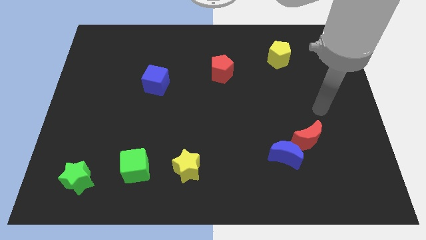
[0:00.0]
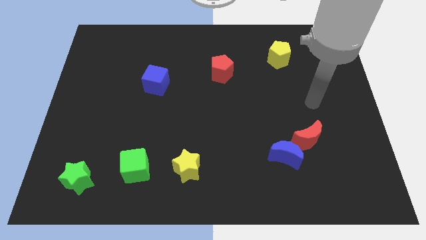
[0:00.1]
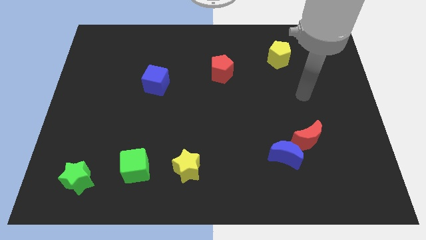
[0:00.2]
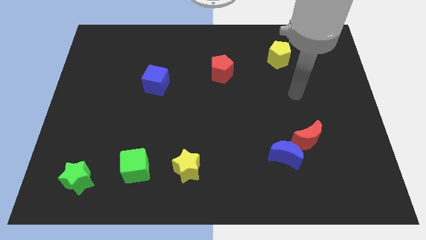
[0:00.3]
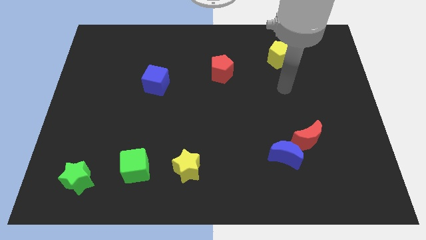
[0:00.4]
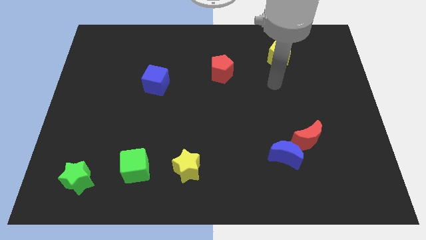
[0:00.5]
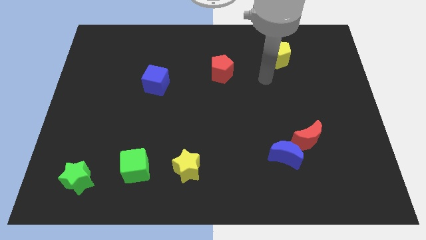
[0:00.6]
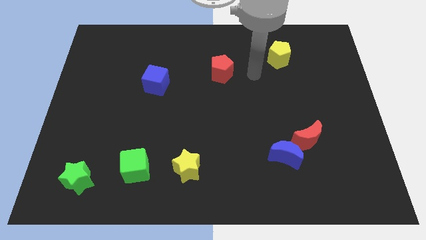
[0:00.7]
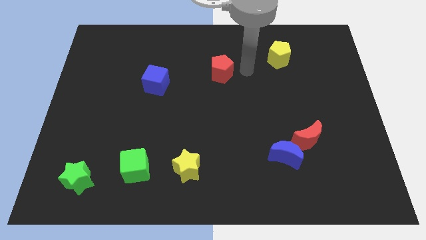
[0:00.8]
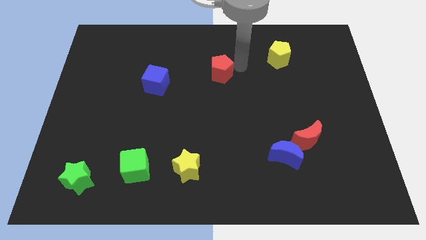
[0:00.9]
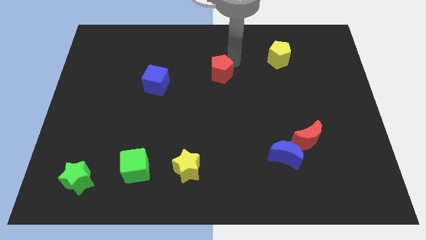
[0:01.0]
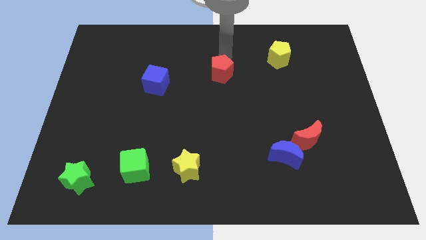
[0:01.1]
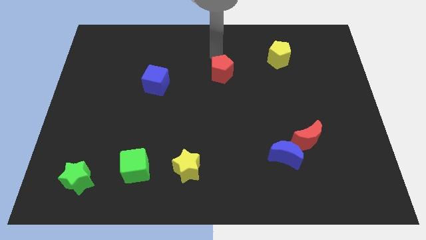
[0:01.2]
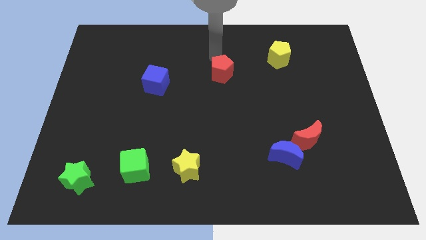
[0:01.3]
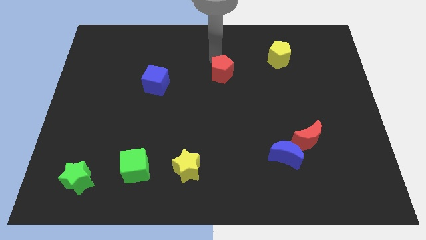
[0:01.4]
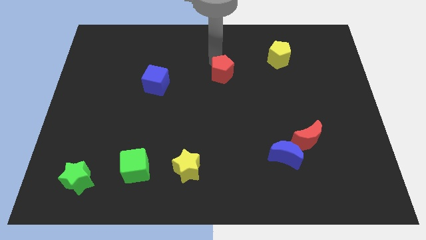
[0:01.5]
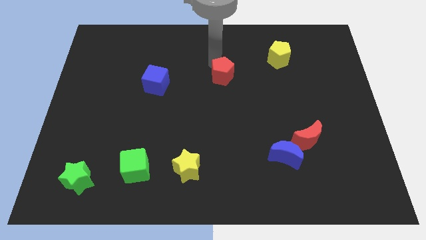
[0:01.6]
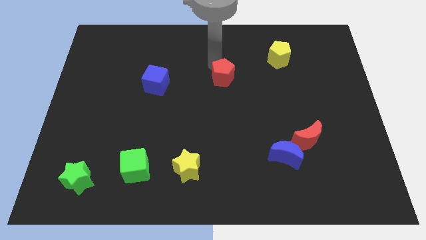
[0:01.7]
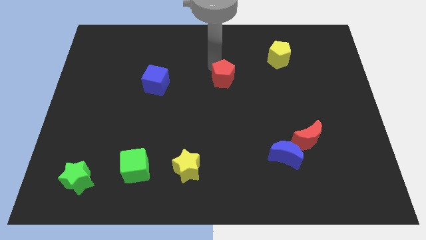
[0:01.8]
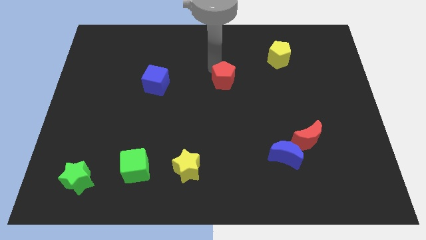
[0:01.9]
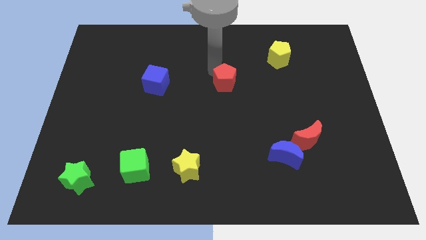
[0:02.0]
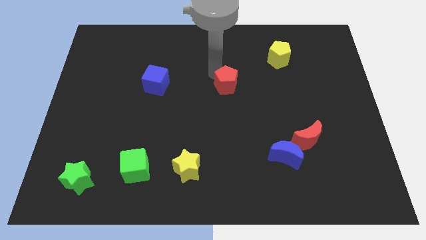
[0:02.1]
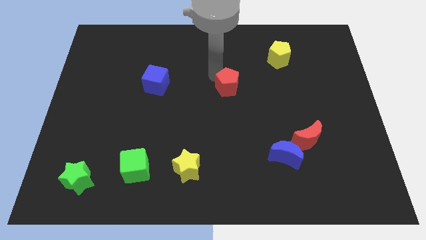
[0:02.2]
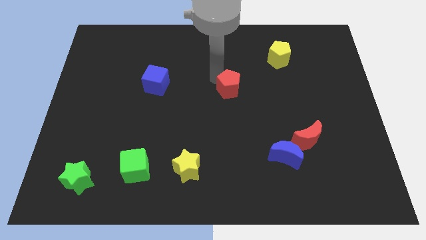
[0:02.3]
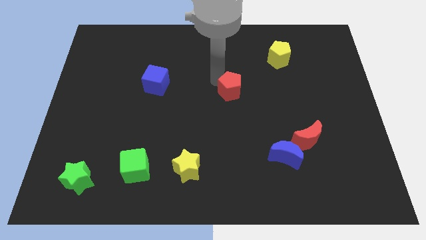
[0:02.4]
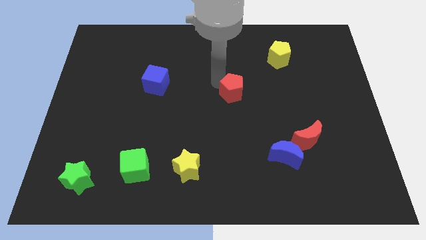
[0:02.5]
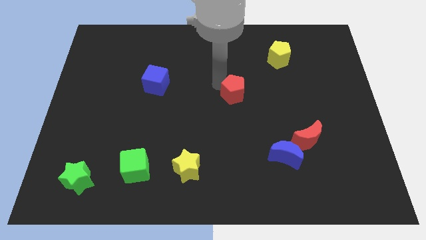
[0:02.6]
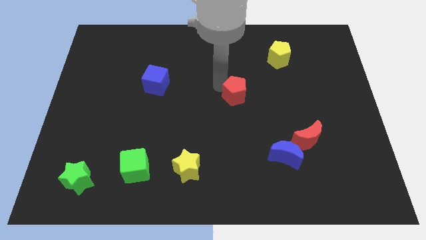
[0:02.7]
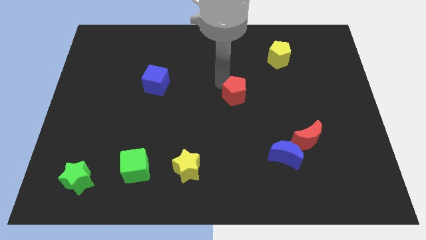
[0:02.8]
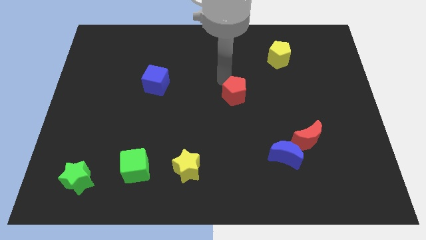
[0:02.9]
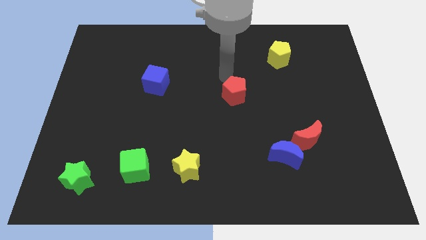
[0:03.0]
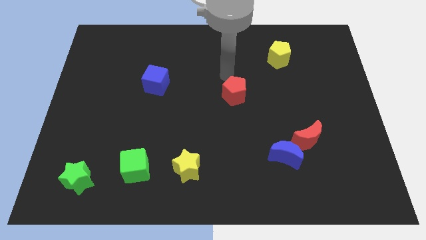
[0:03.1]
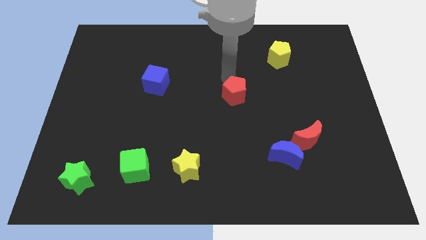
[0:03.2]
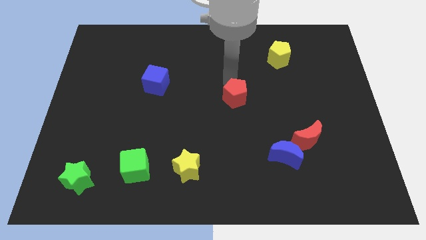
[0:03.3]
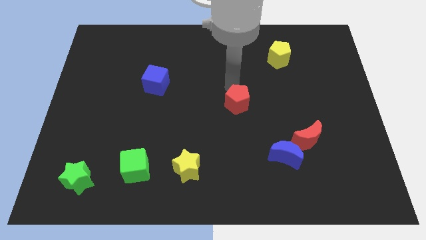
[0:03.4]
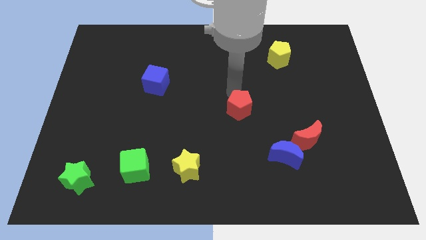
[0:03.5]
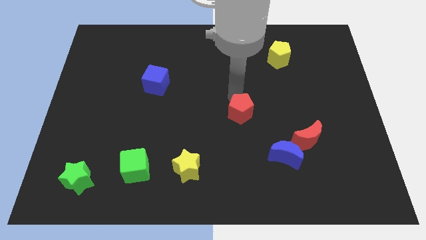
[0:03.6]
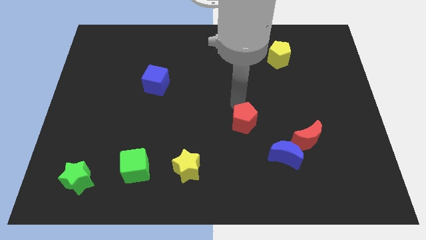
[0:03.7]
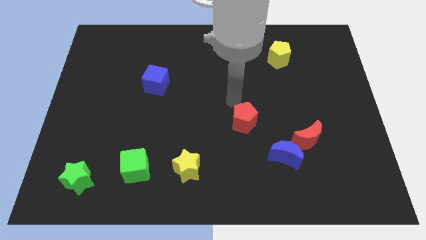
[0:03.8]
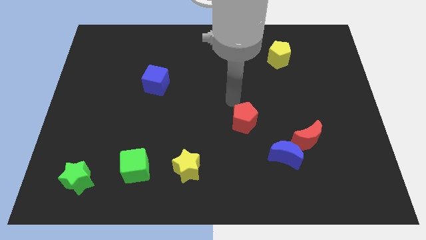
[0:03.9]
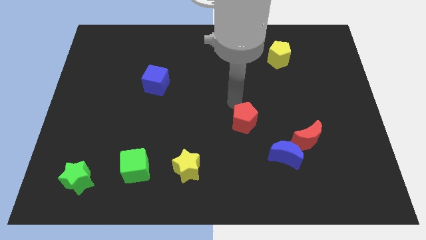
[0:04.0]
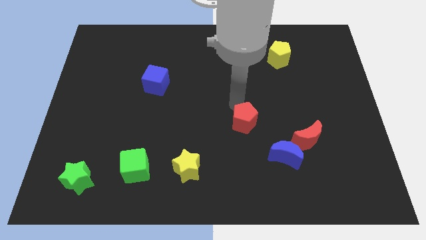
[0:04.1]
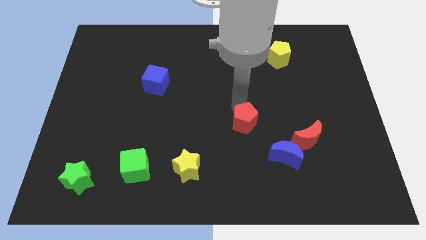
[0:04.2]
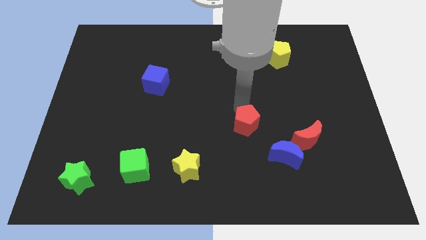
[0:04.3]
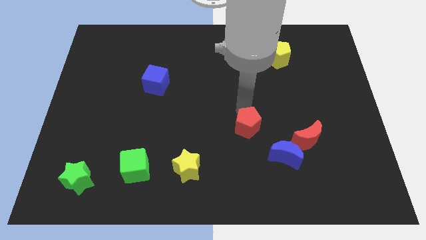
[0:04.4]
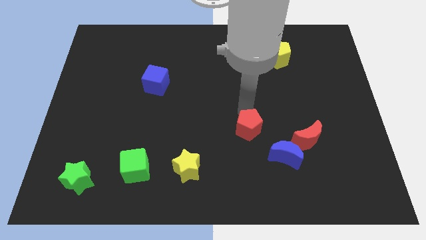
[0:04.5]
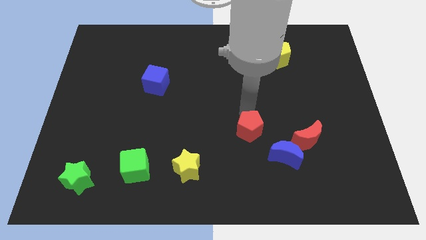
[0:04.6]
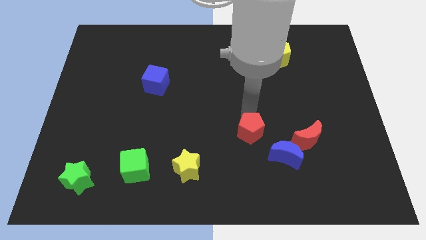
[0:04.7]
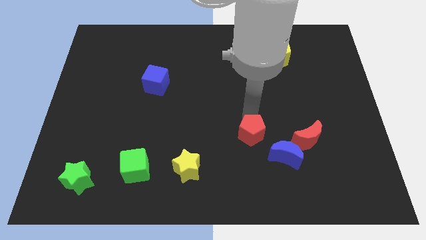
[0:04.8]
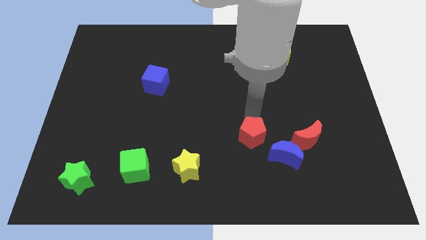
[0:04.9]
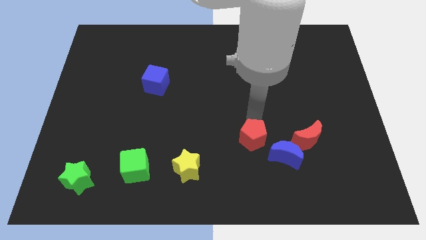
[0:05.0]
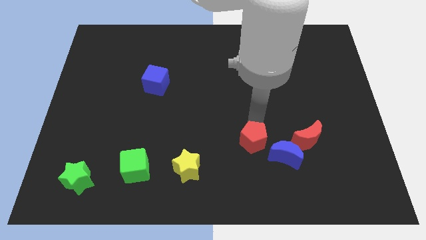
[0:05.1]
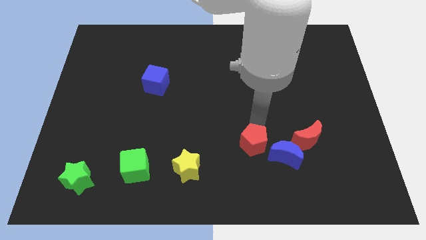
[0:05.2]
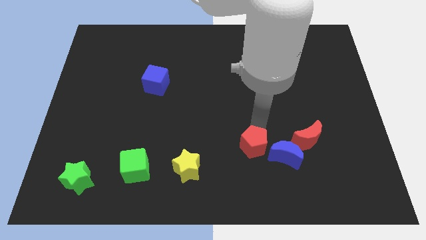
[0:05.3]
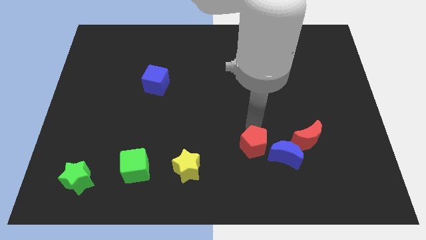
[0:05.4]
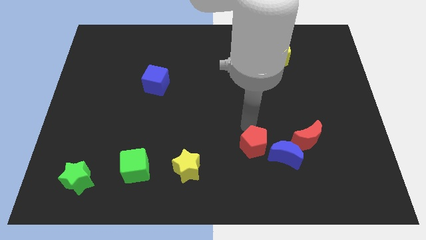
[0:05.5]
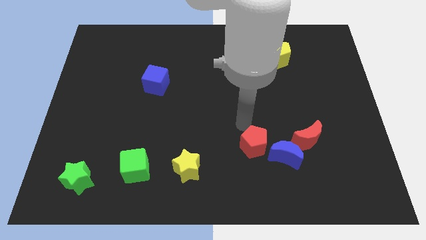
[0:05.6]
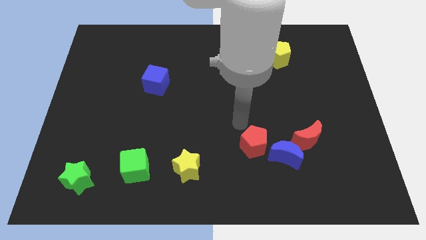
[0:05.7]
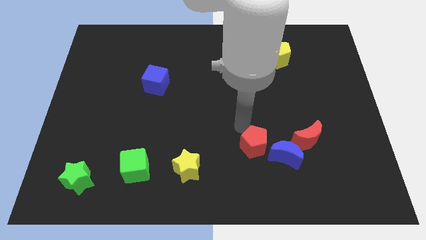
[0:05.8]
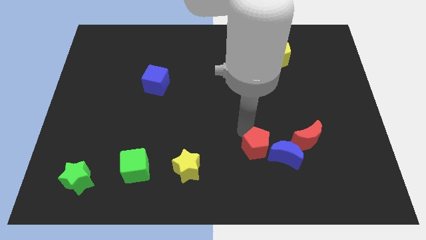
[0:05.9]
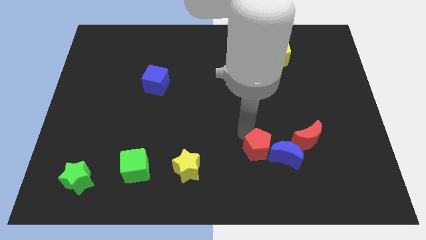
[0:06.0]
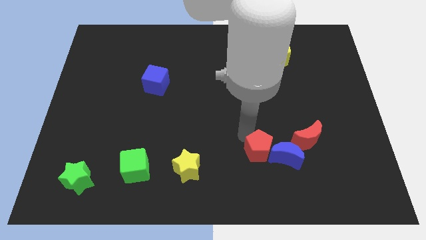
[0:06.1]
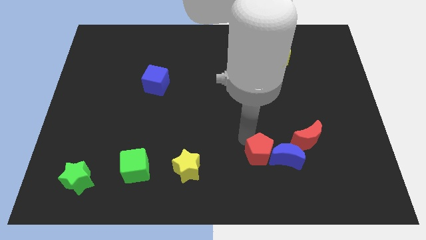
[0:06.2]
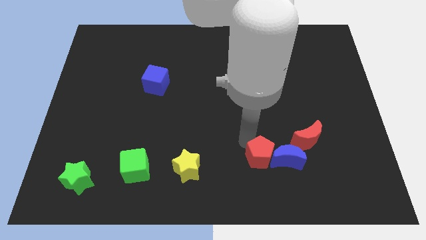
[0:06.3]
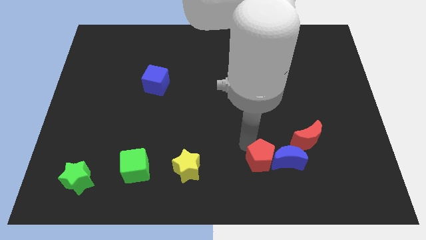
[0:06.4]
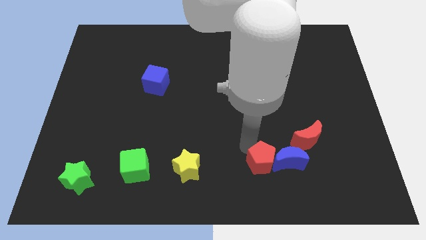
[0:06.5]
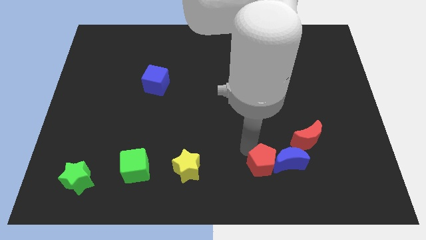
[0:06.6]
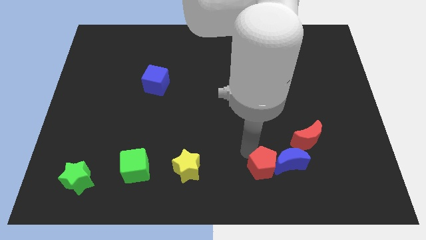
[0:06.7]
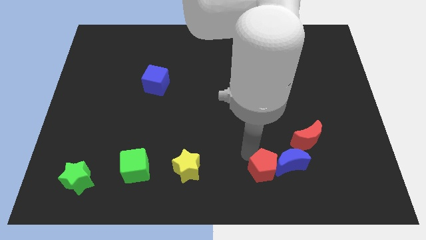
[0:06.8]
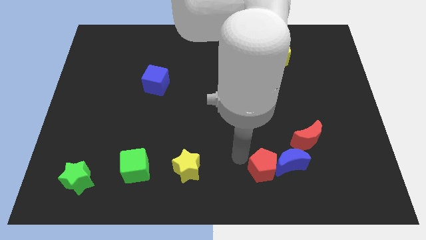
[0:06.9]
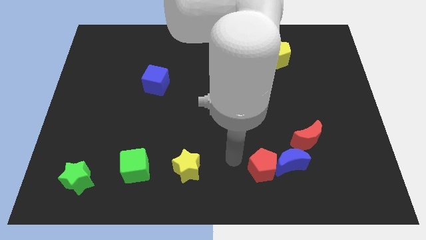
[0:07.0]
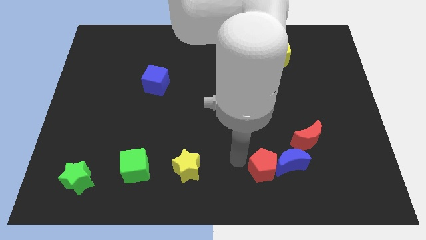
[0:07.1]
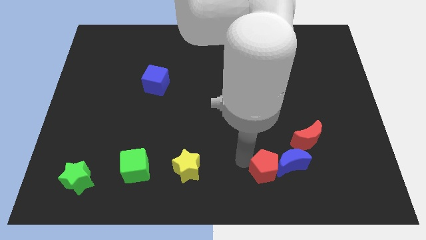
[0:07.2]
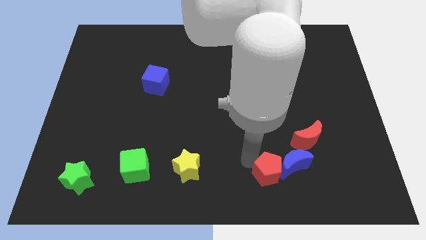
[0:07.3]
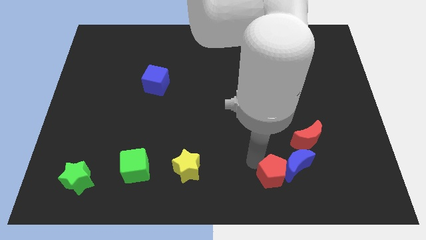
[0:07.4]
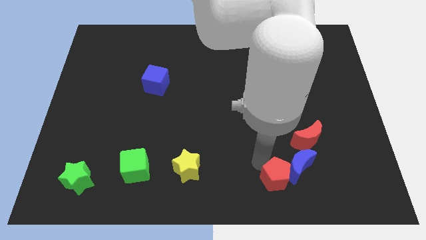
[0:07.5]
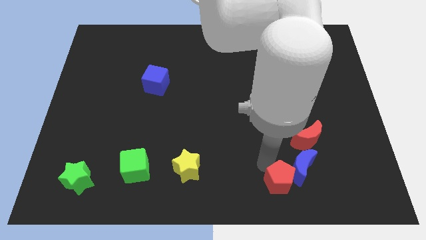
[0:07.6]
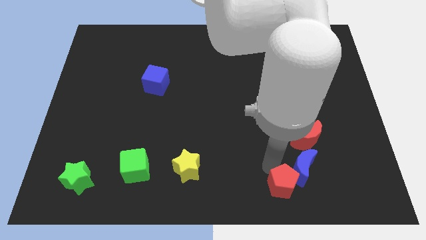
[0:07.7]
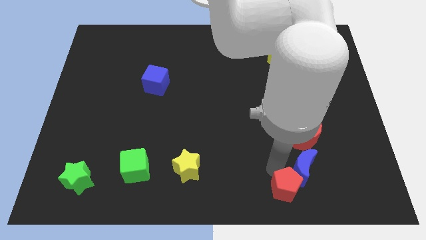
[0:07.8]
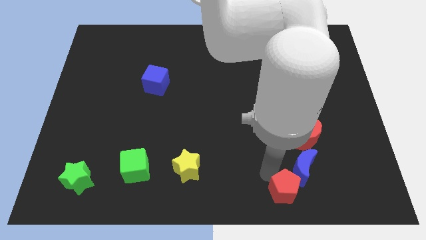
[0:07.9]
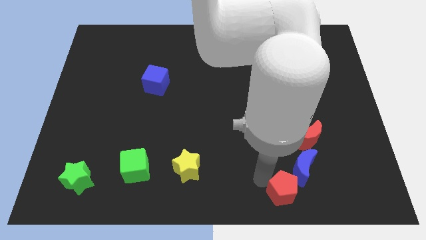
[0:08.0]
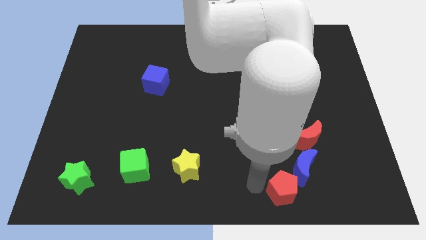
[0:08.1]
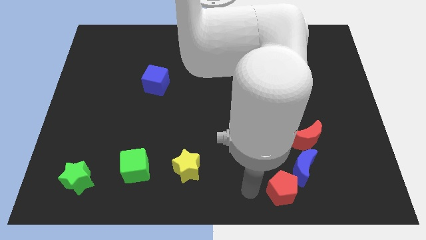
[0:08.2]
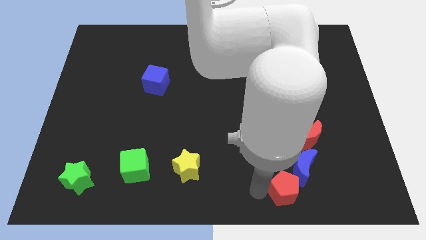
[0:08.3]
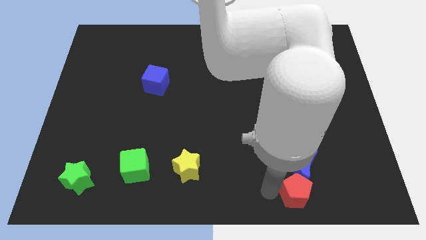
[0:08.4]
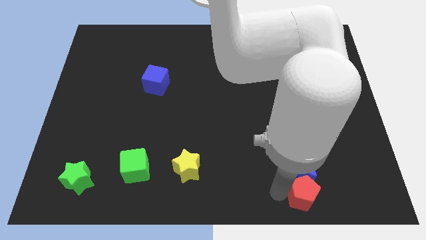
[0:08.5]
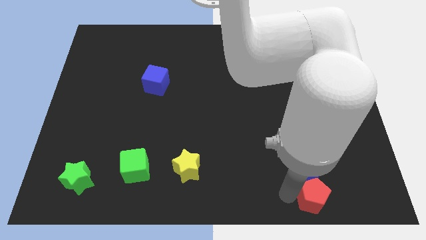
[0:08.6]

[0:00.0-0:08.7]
move the red pentagon to the bottom right side of the blue moon
